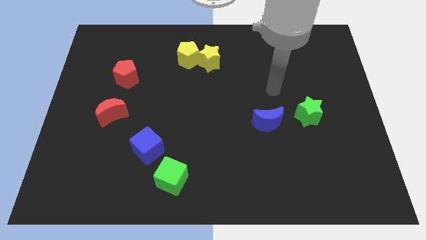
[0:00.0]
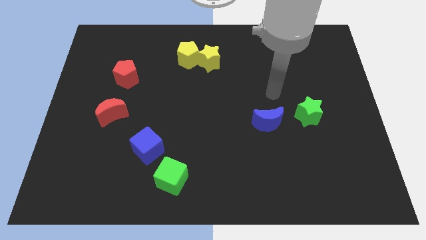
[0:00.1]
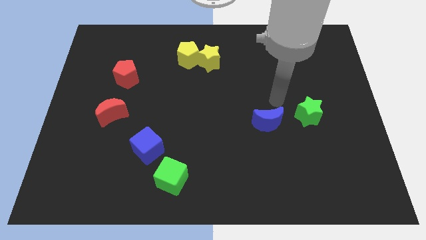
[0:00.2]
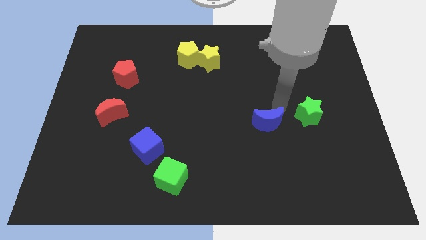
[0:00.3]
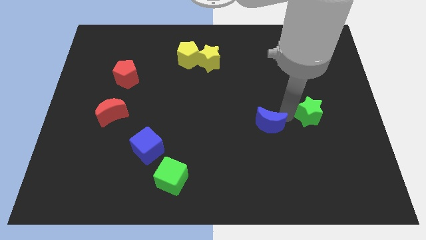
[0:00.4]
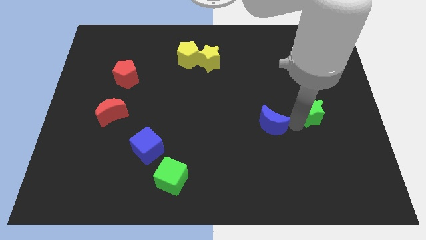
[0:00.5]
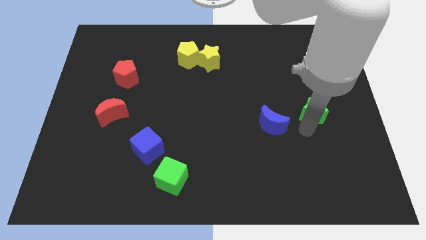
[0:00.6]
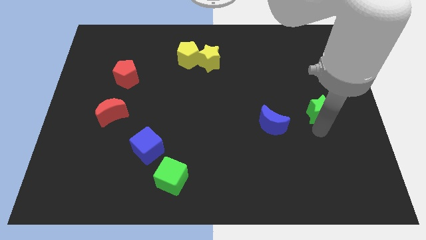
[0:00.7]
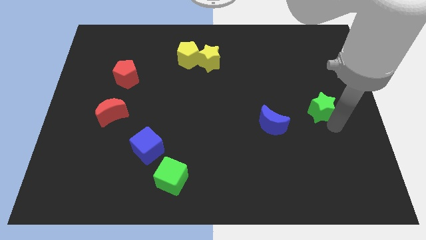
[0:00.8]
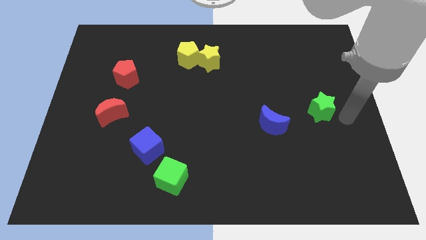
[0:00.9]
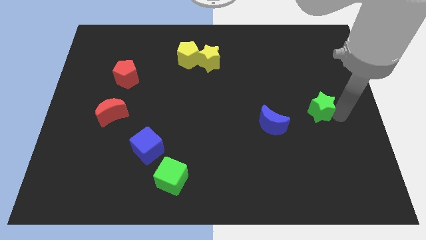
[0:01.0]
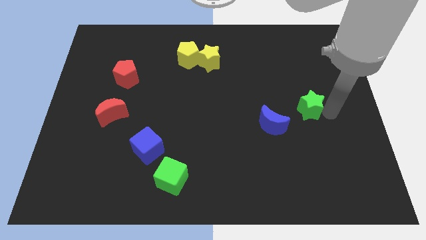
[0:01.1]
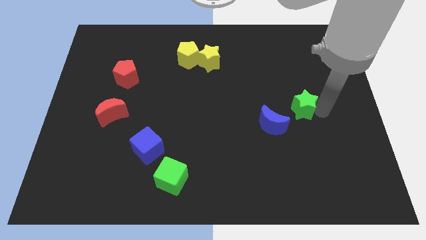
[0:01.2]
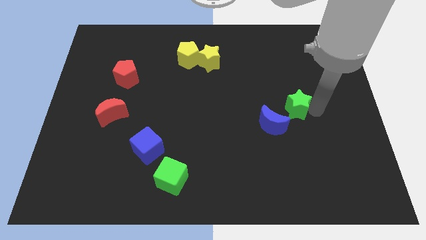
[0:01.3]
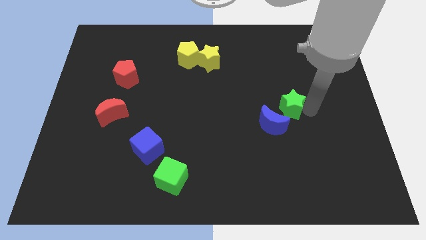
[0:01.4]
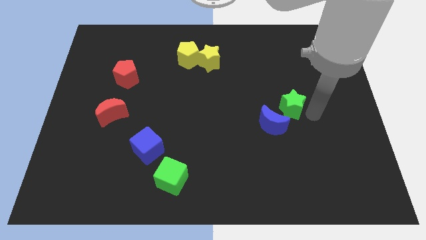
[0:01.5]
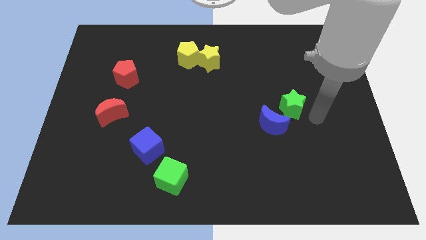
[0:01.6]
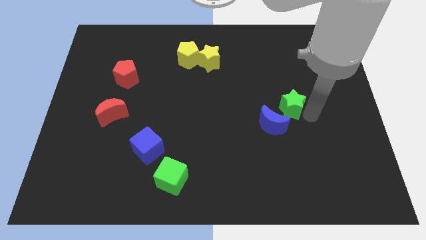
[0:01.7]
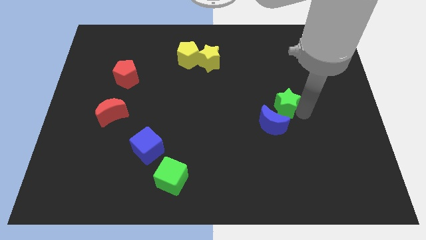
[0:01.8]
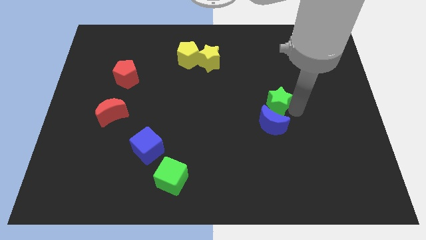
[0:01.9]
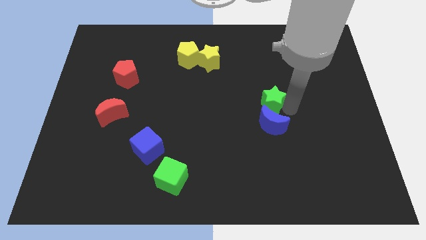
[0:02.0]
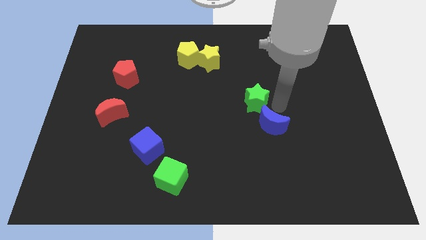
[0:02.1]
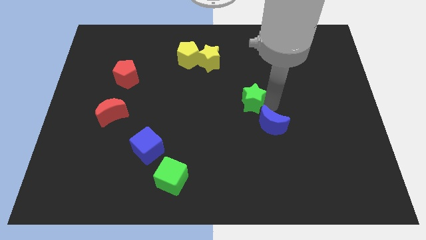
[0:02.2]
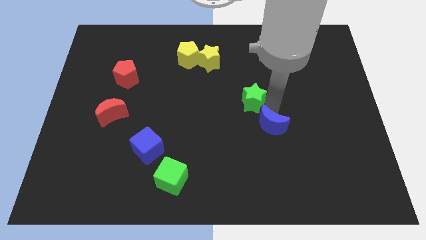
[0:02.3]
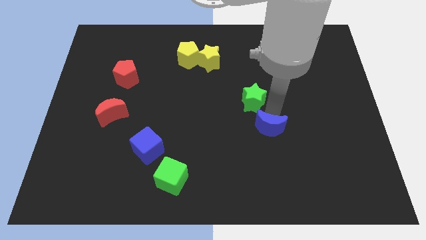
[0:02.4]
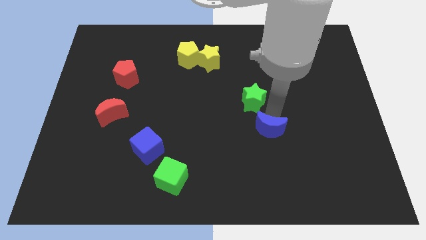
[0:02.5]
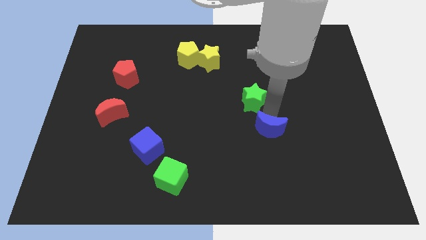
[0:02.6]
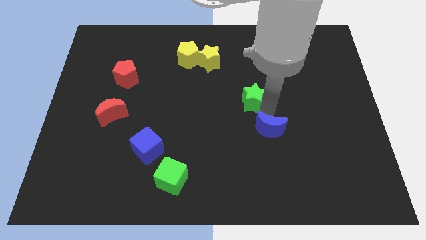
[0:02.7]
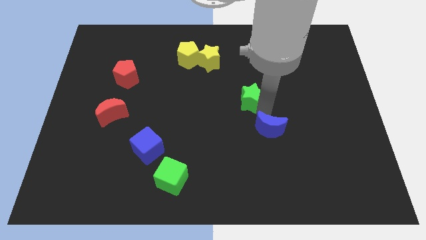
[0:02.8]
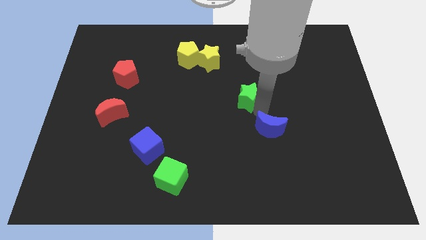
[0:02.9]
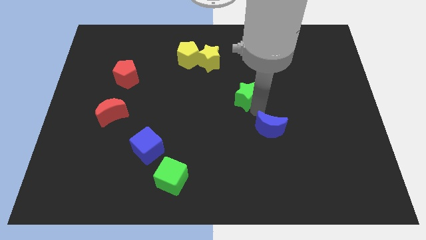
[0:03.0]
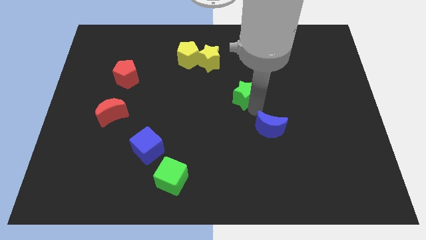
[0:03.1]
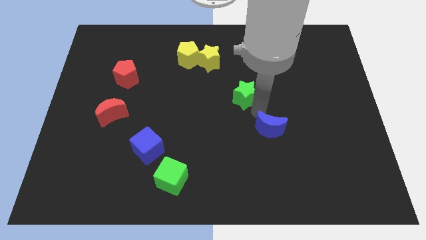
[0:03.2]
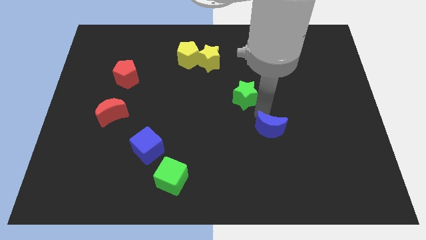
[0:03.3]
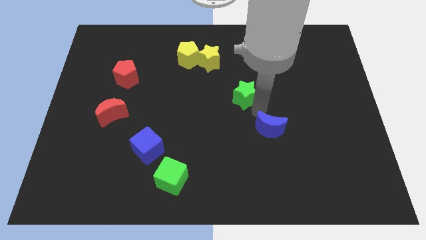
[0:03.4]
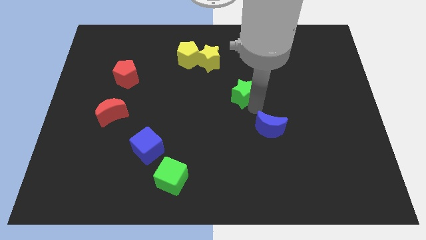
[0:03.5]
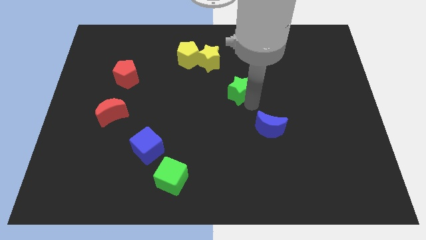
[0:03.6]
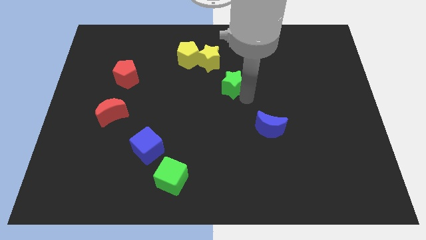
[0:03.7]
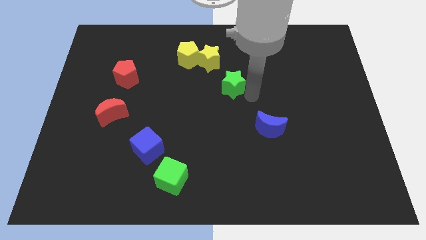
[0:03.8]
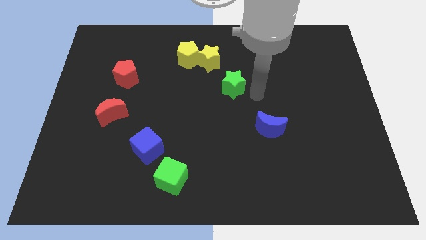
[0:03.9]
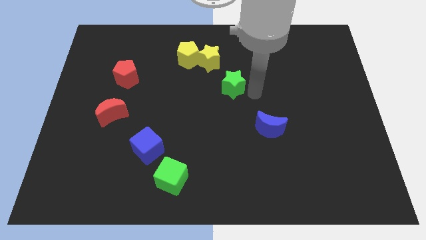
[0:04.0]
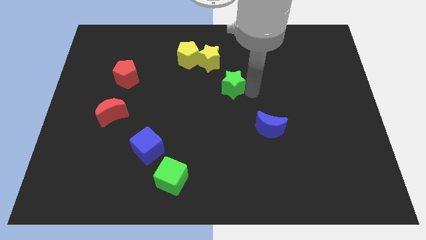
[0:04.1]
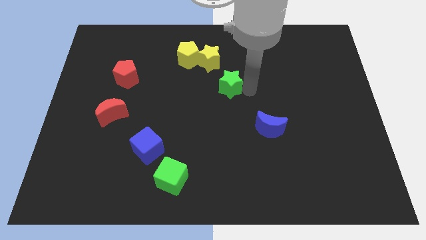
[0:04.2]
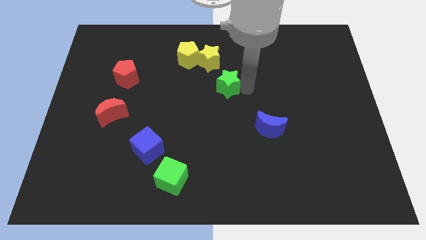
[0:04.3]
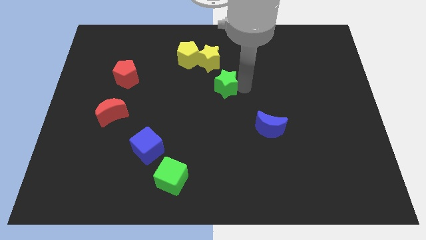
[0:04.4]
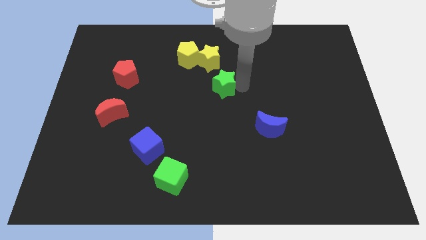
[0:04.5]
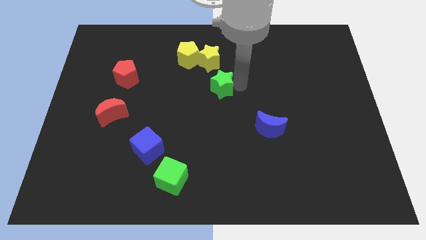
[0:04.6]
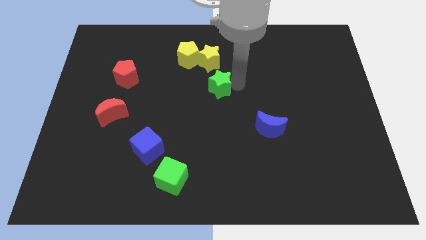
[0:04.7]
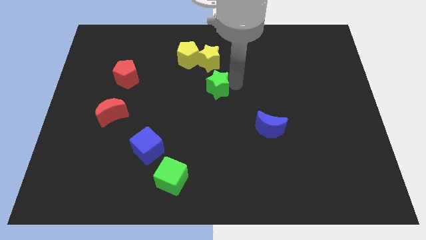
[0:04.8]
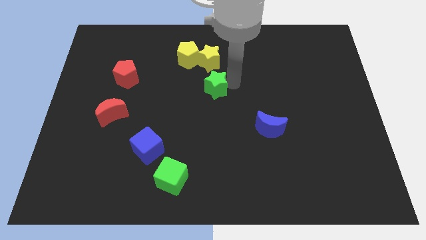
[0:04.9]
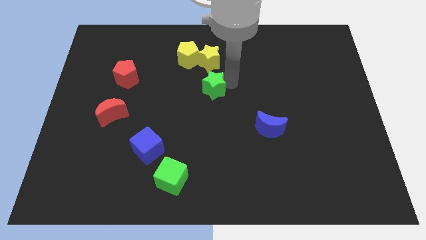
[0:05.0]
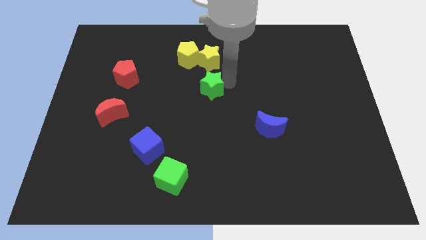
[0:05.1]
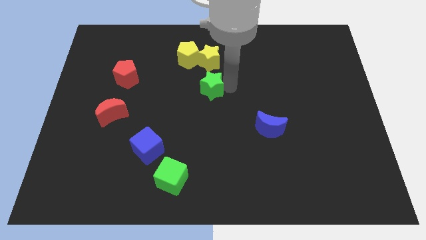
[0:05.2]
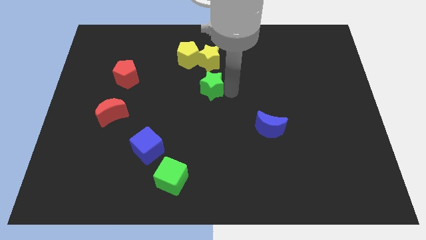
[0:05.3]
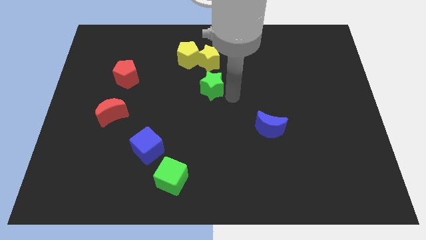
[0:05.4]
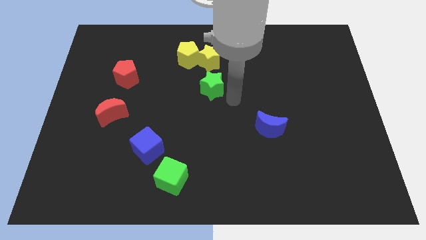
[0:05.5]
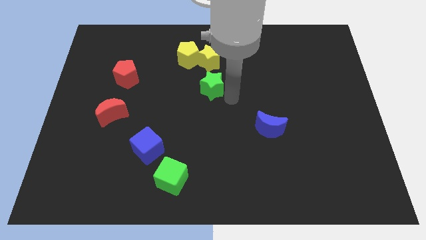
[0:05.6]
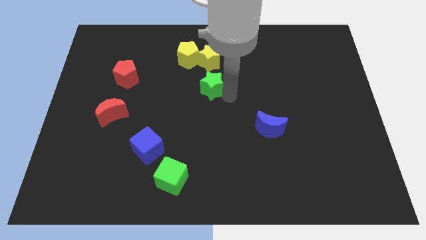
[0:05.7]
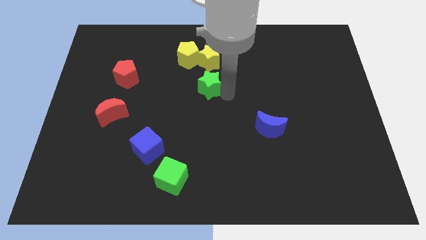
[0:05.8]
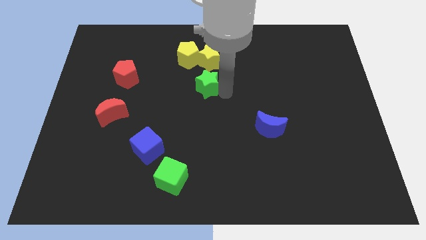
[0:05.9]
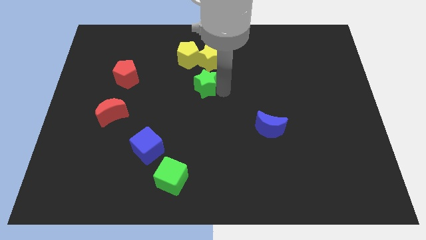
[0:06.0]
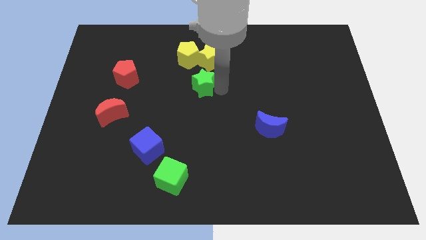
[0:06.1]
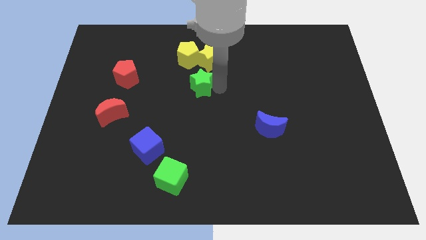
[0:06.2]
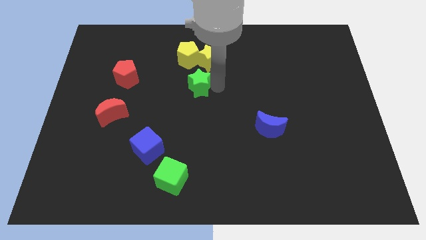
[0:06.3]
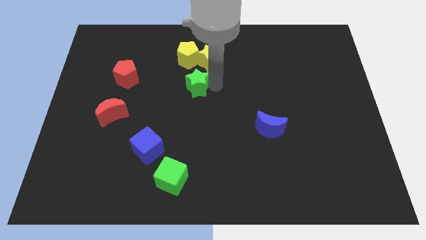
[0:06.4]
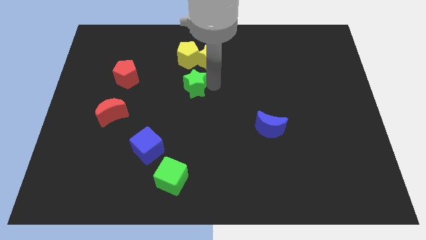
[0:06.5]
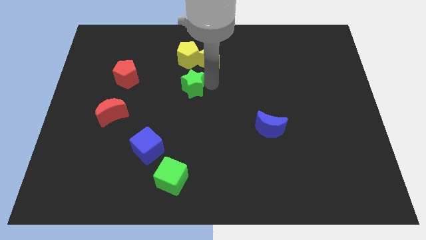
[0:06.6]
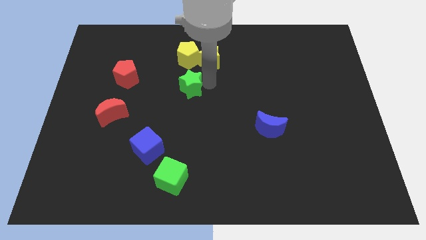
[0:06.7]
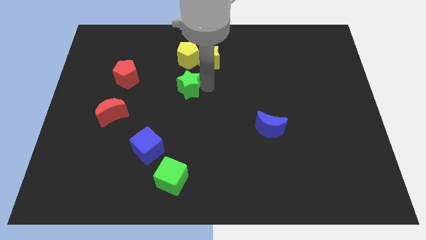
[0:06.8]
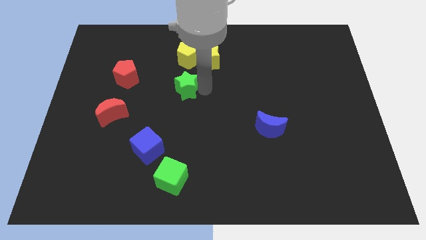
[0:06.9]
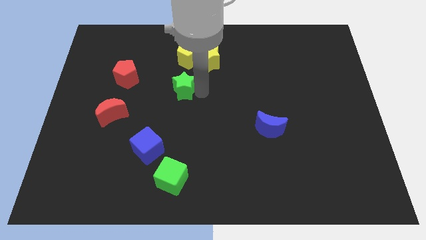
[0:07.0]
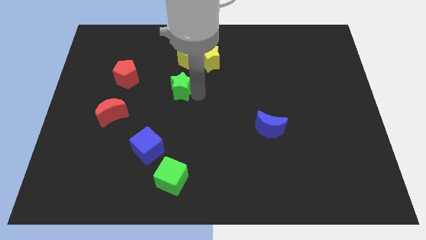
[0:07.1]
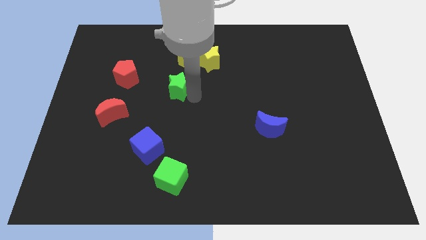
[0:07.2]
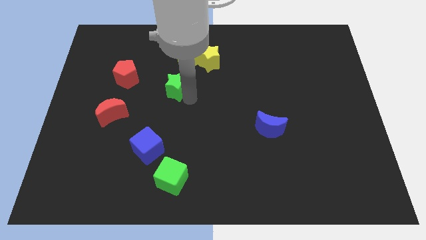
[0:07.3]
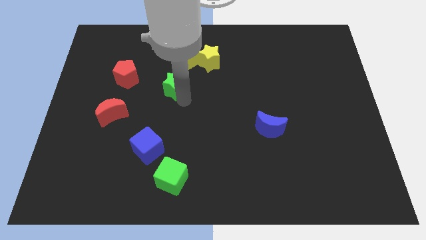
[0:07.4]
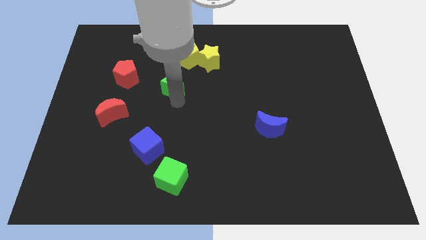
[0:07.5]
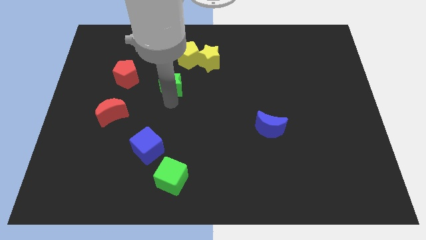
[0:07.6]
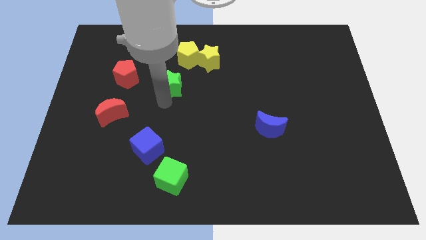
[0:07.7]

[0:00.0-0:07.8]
push the green star diagonally down and to the left of the yellow pentagon
